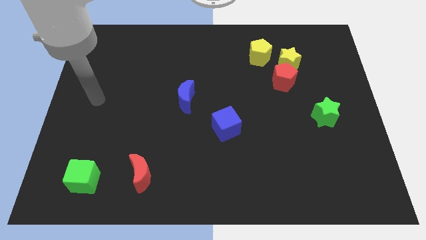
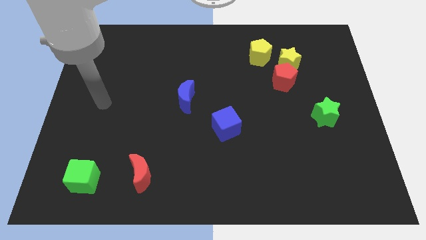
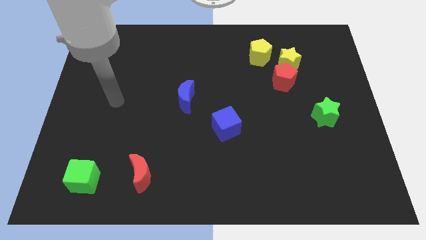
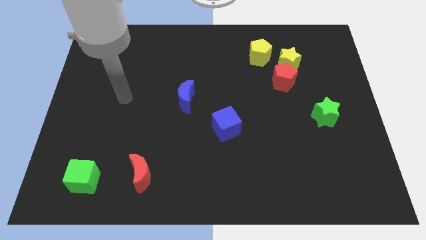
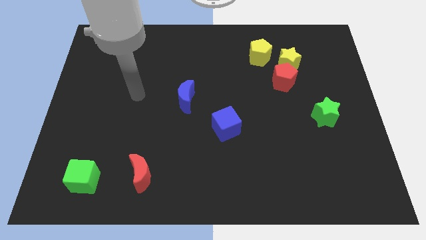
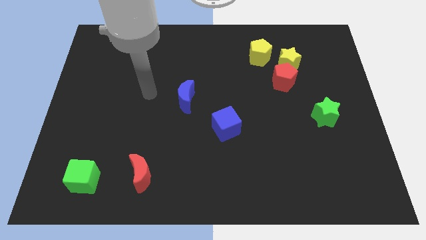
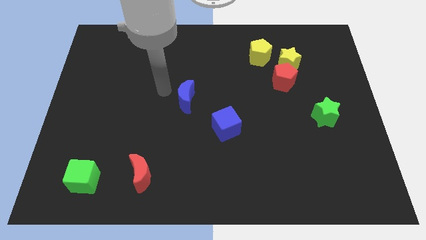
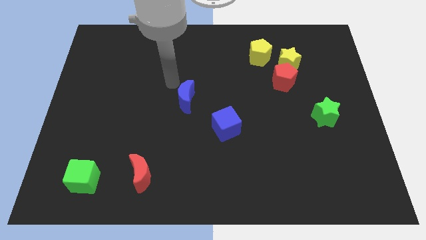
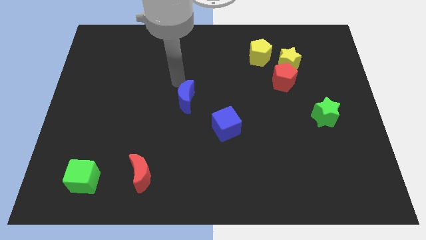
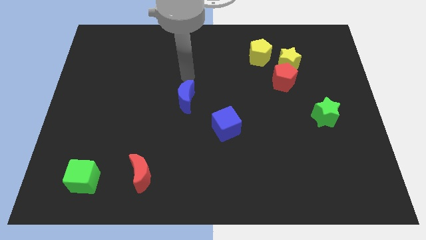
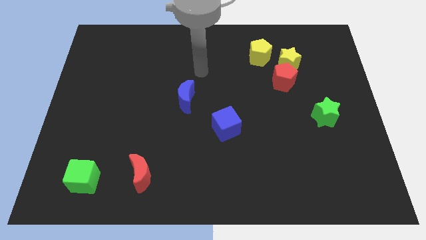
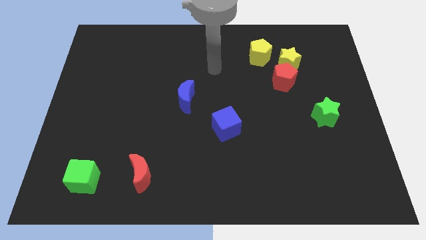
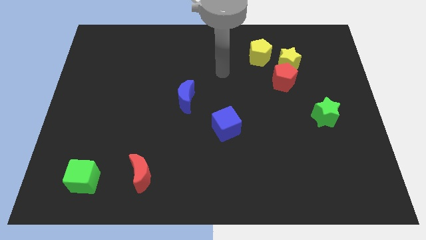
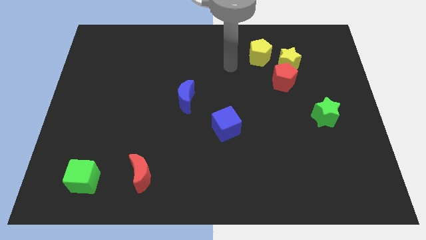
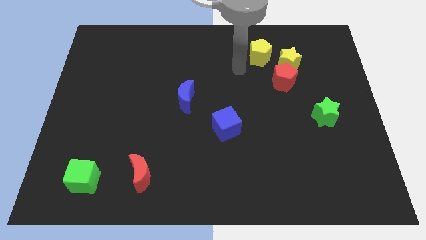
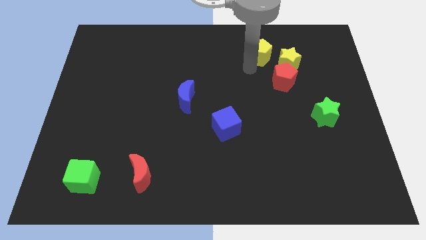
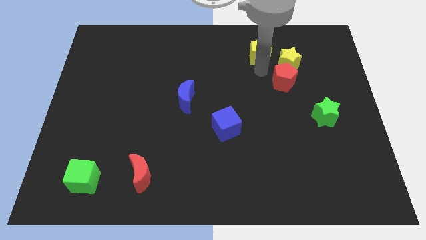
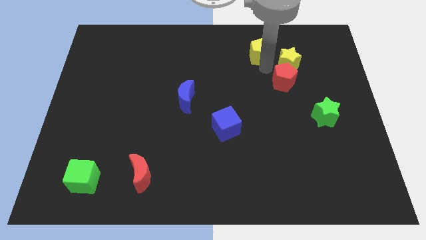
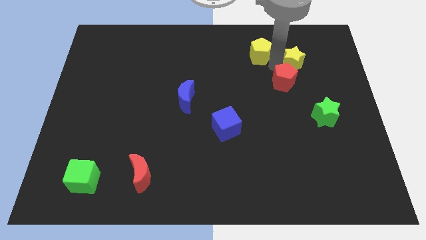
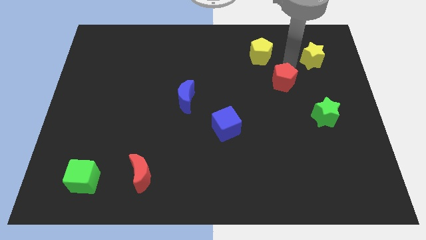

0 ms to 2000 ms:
separate the red pentagon from the yellow star

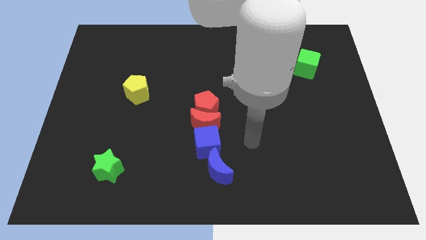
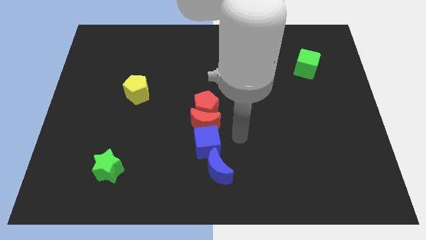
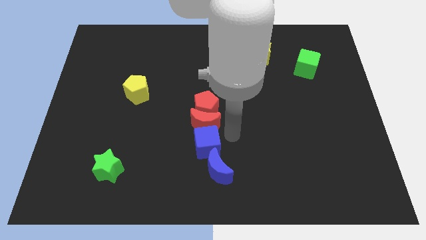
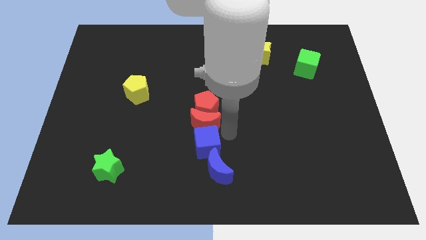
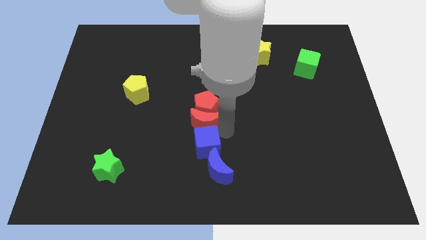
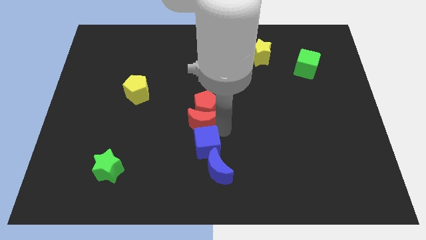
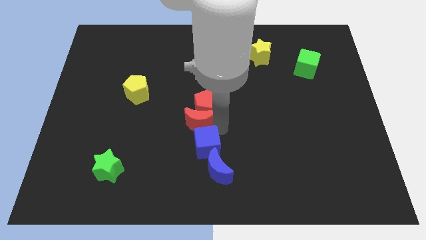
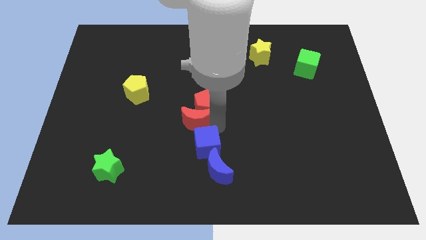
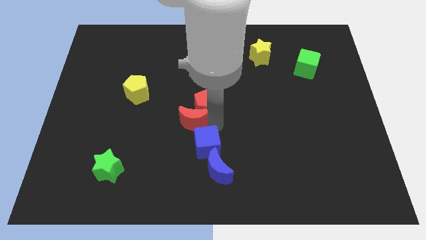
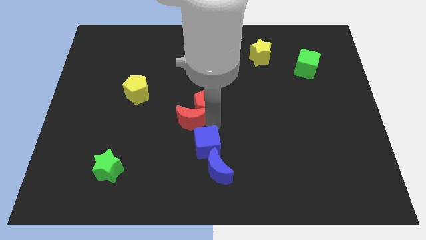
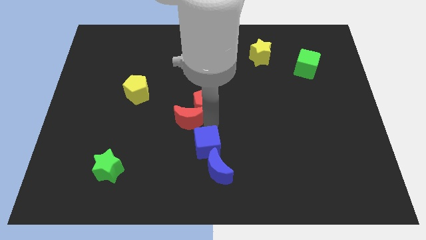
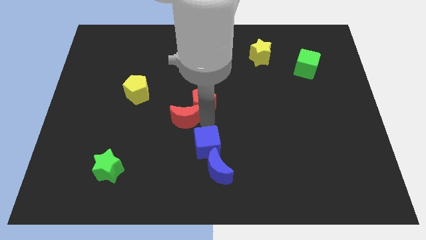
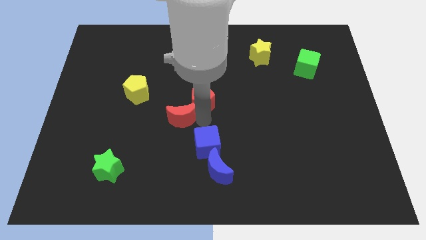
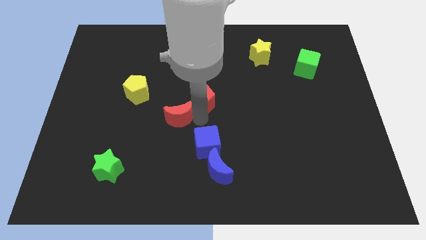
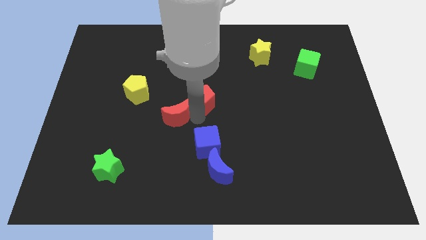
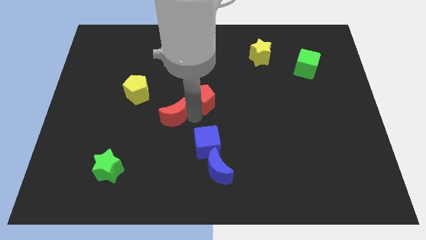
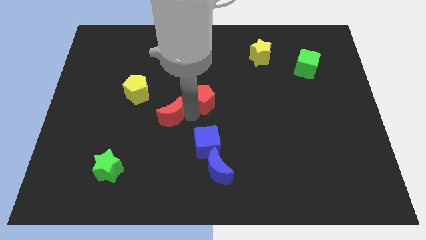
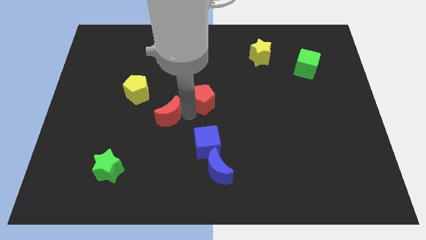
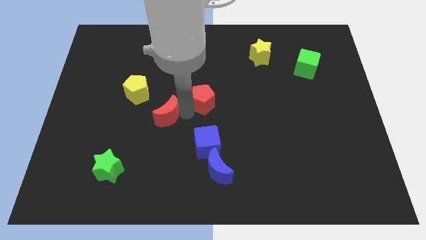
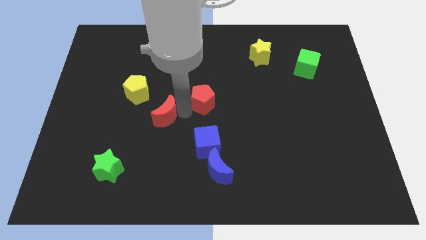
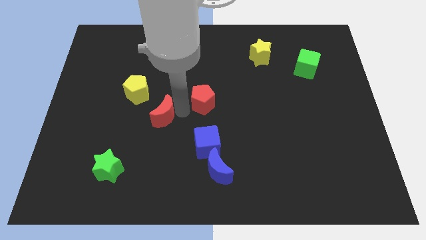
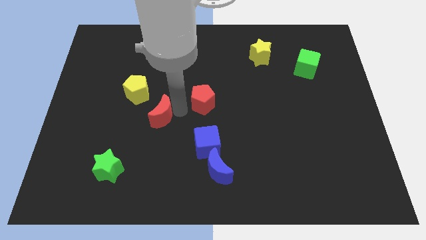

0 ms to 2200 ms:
separate the red moon from the red pentagon and blue cube

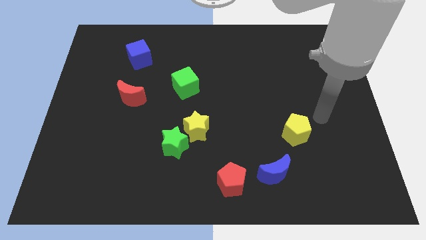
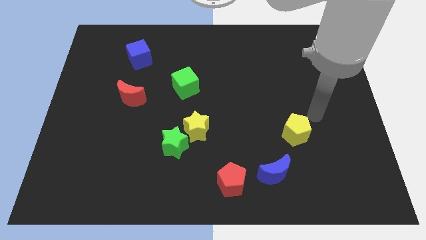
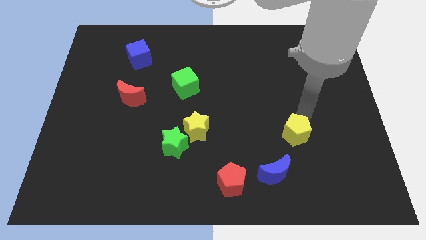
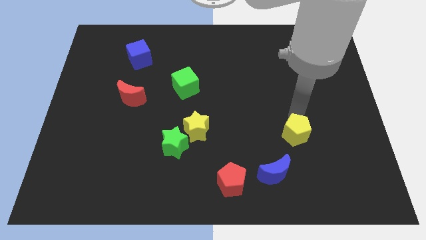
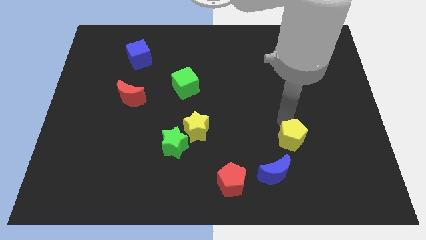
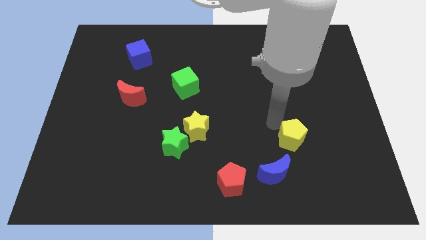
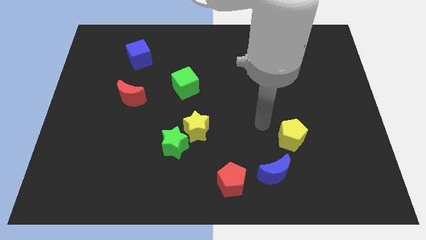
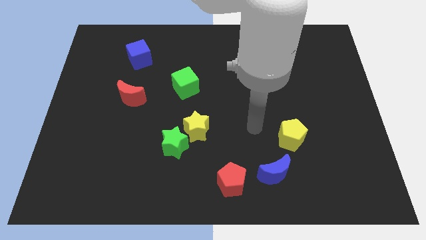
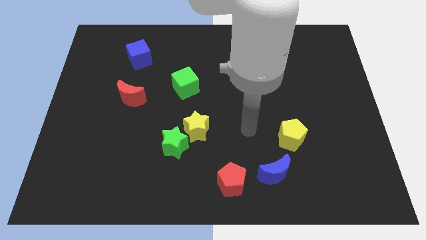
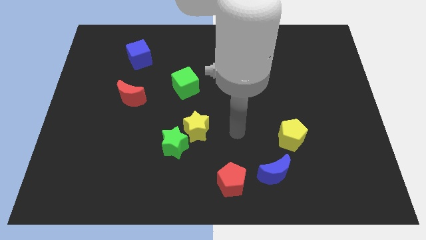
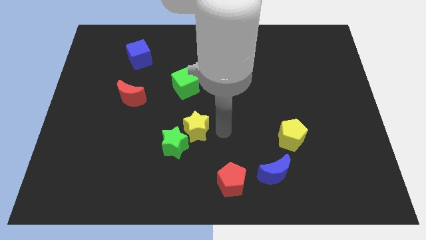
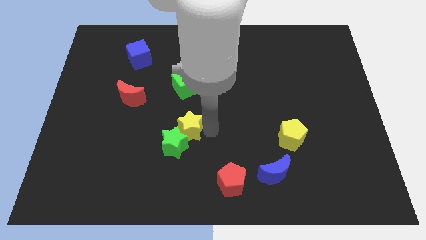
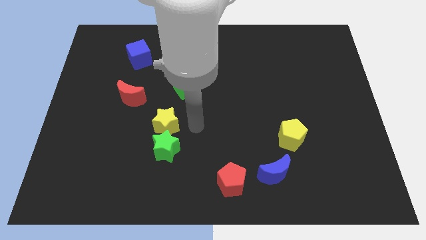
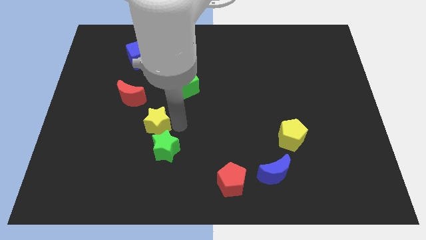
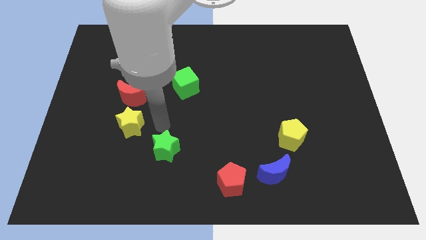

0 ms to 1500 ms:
move the green star away from the yellow star

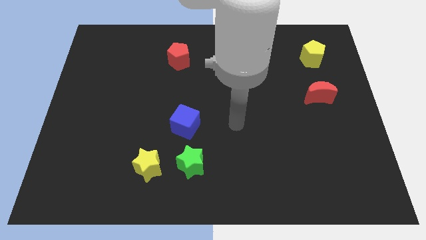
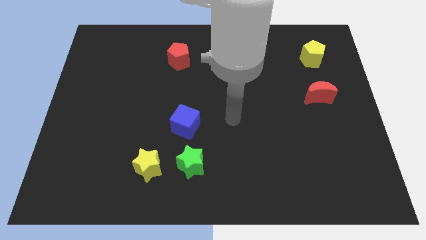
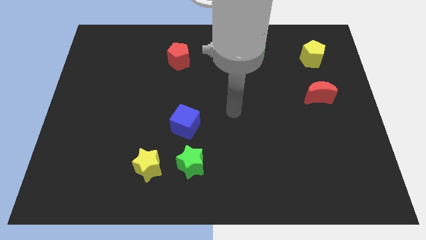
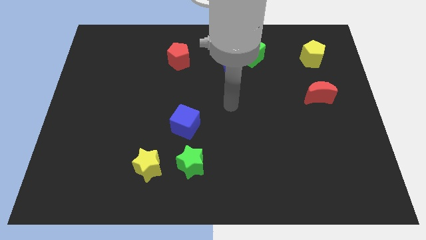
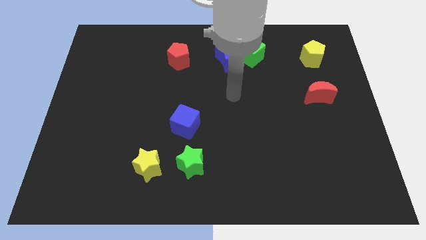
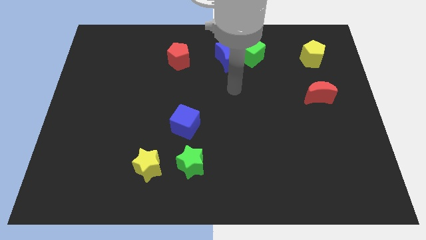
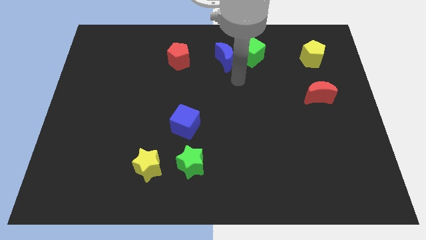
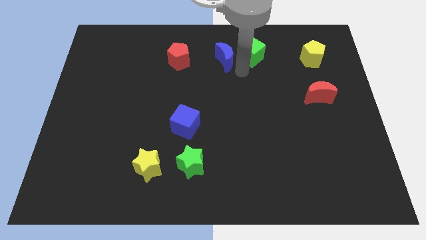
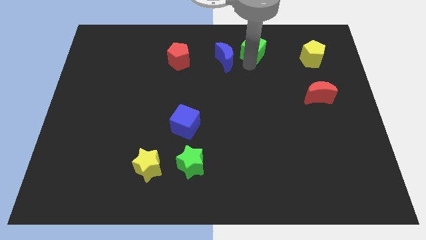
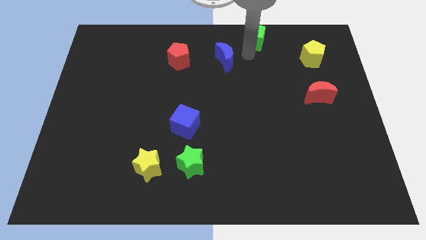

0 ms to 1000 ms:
move the blue moon away from the green cube

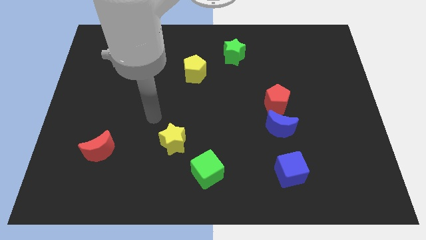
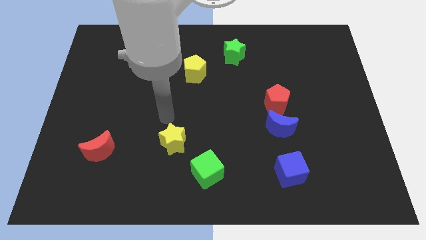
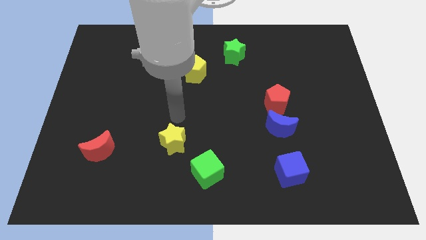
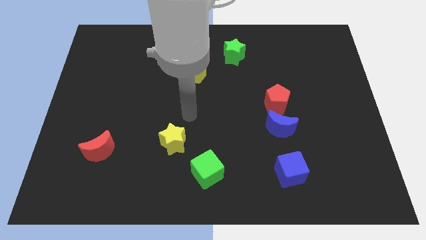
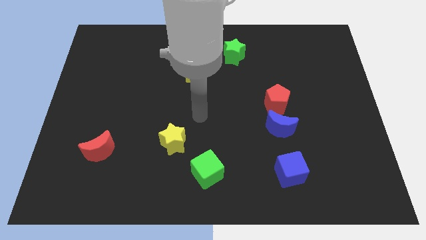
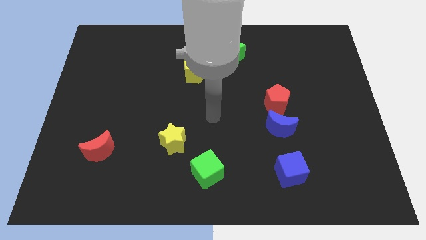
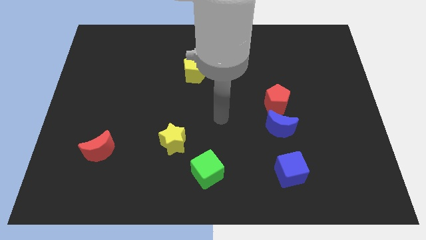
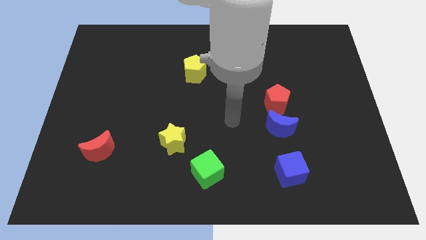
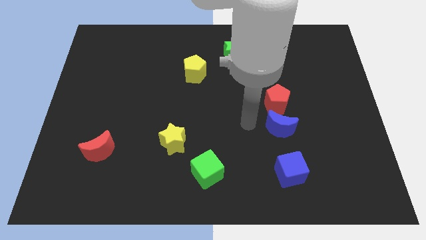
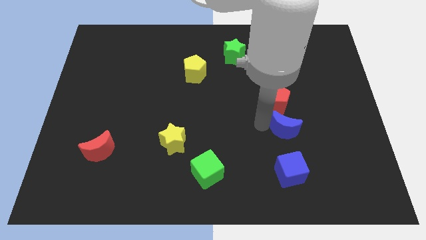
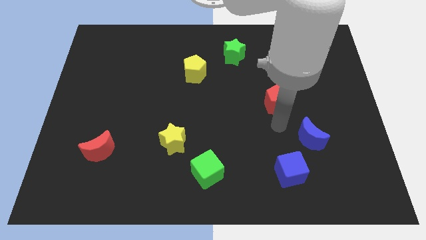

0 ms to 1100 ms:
move the red pentagon away from the blue moon

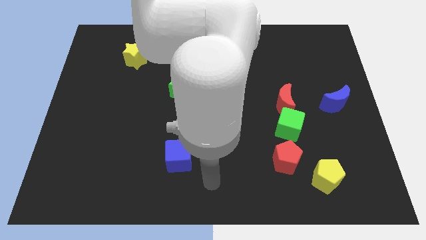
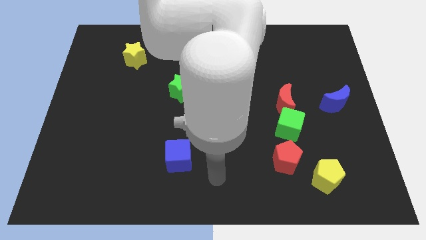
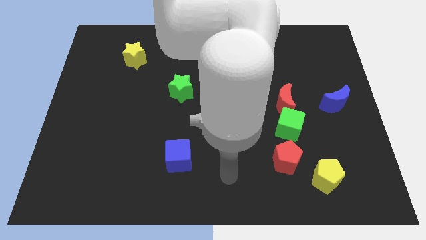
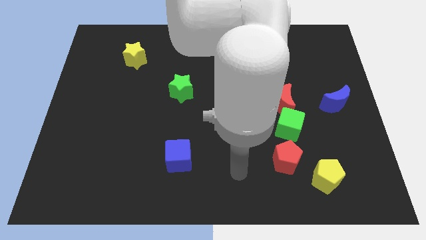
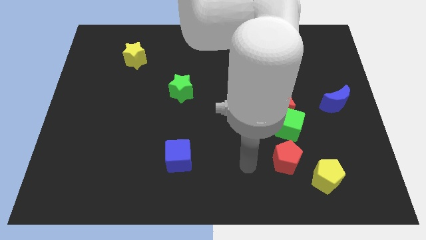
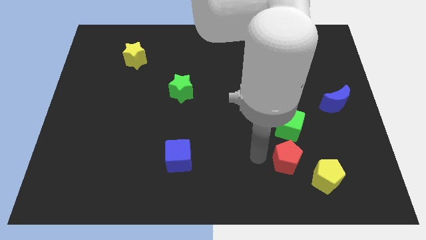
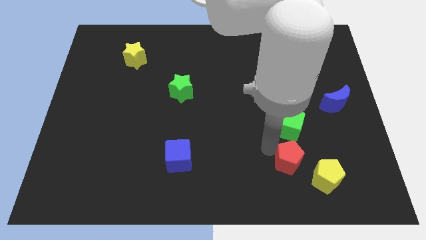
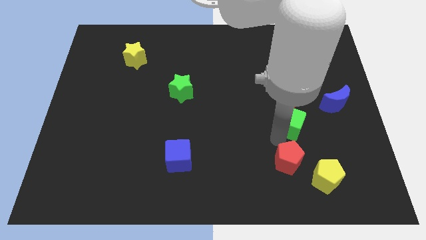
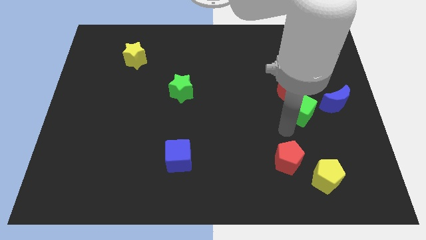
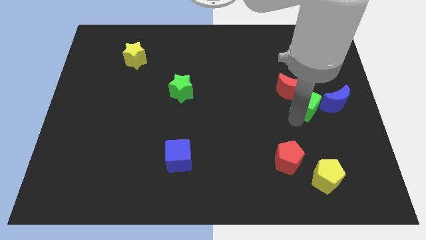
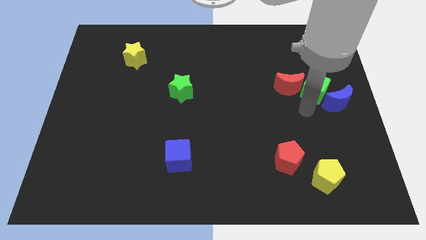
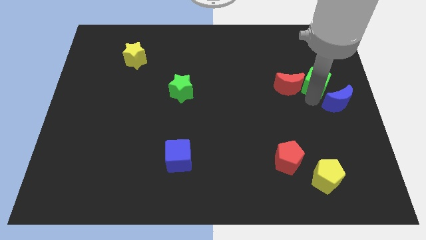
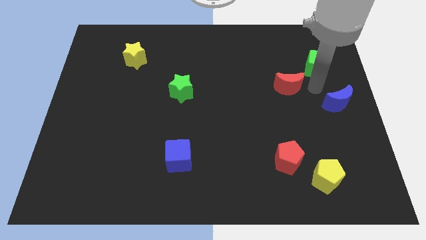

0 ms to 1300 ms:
move the red moon away from the green cube

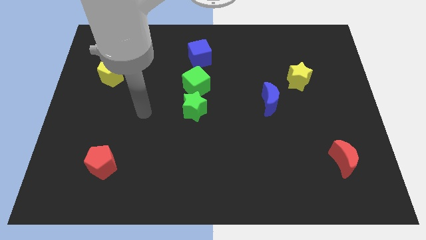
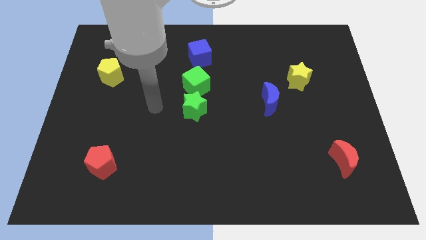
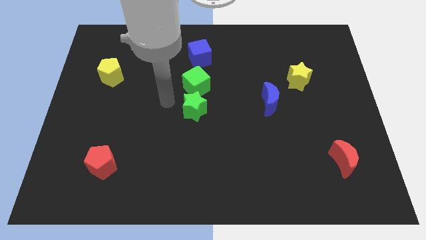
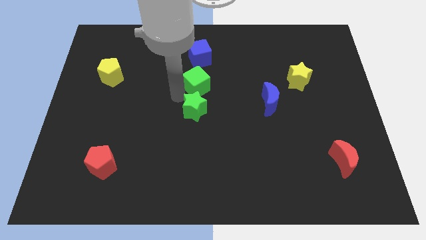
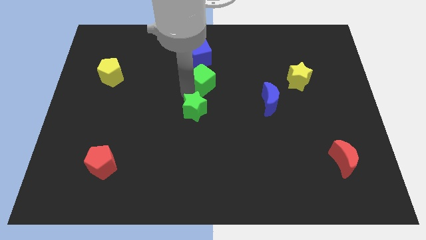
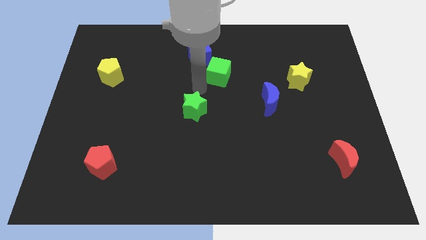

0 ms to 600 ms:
separate the green star from the green cube
